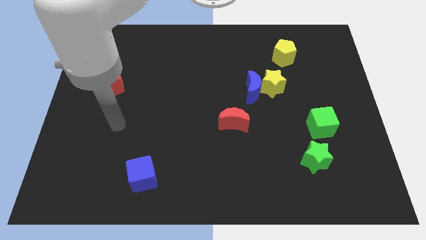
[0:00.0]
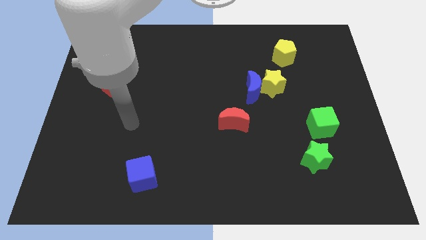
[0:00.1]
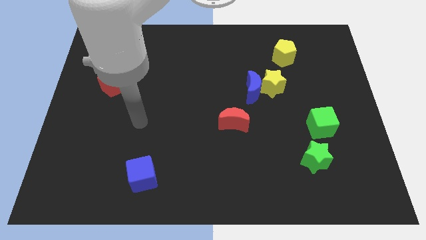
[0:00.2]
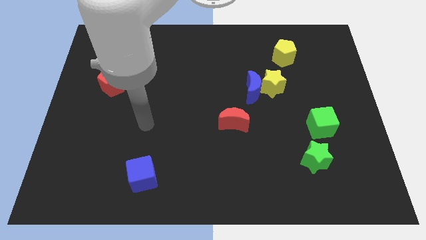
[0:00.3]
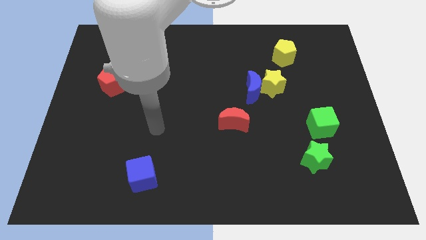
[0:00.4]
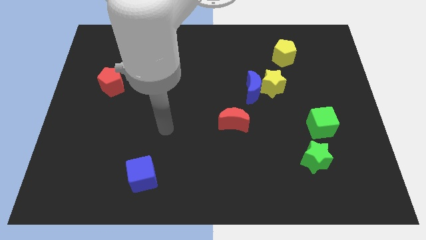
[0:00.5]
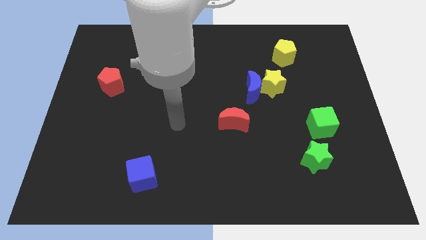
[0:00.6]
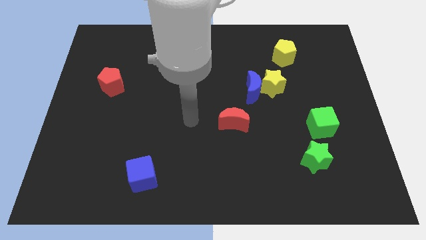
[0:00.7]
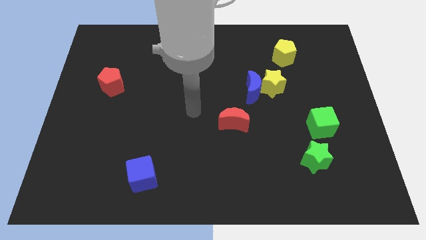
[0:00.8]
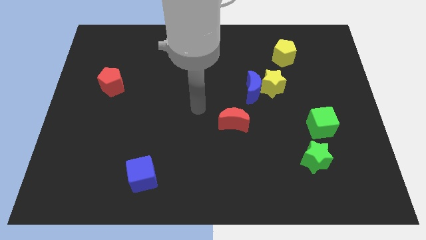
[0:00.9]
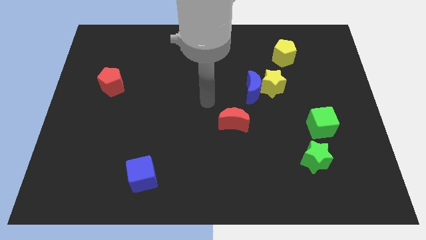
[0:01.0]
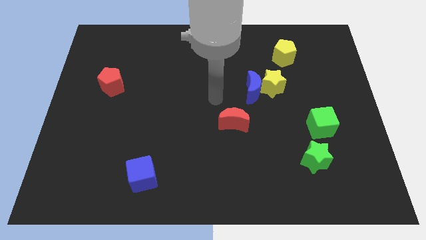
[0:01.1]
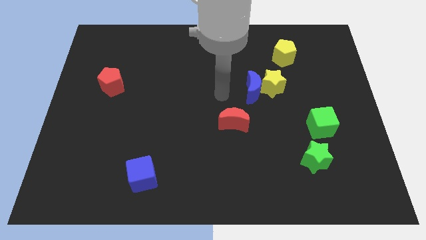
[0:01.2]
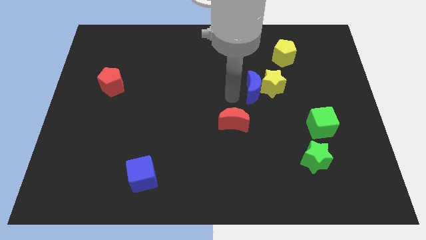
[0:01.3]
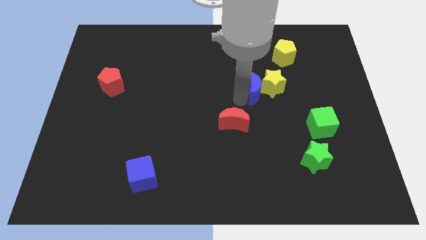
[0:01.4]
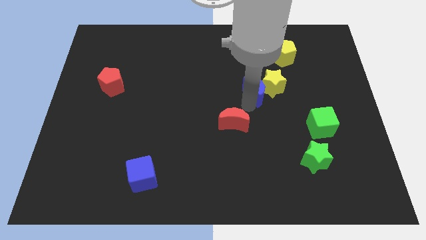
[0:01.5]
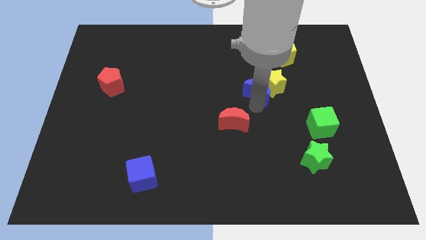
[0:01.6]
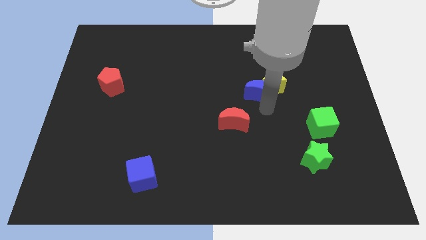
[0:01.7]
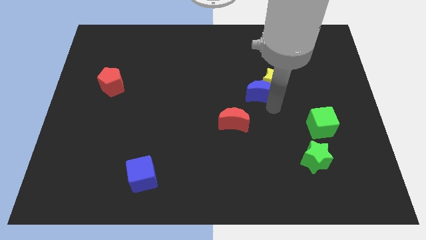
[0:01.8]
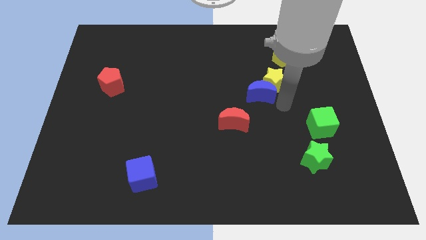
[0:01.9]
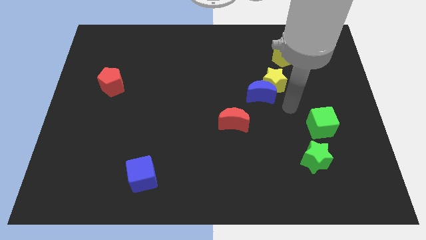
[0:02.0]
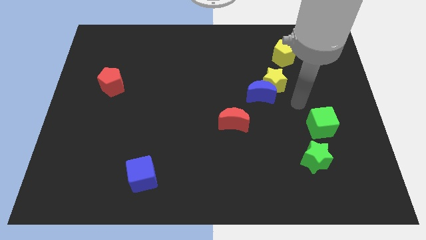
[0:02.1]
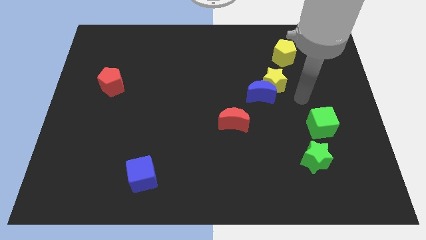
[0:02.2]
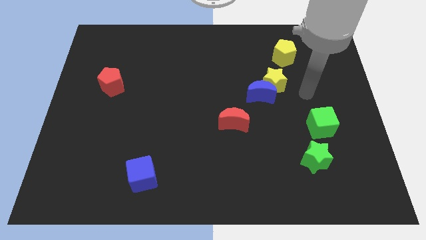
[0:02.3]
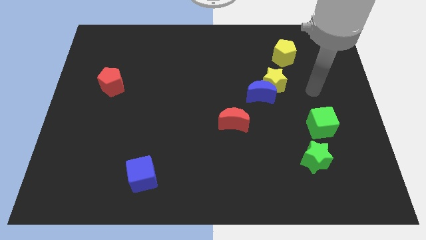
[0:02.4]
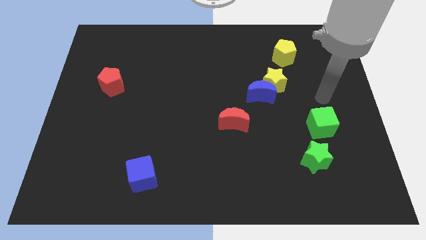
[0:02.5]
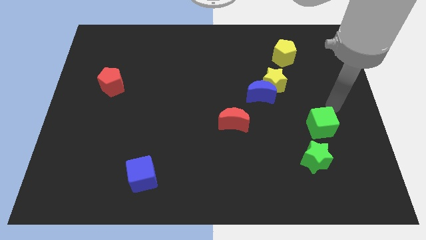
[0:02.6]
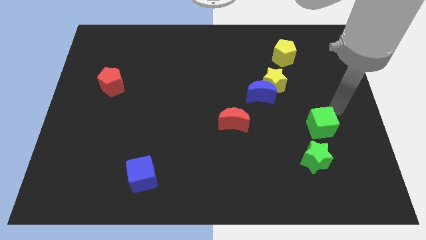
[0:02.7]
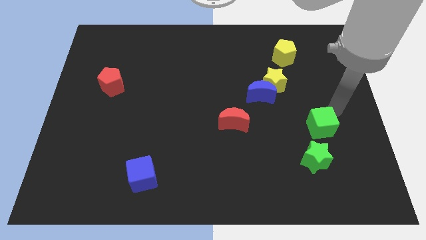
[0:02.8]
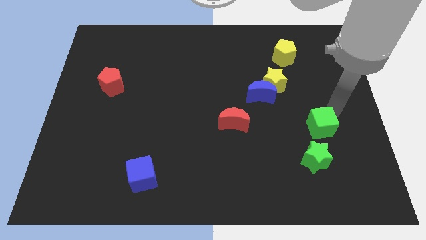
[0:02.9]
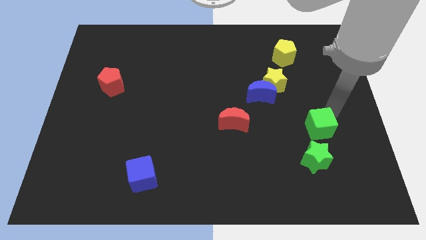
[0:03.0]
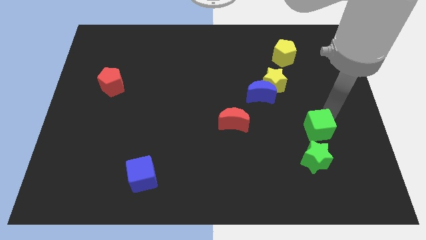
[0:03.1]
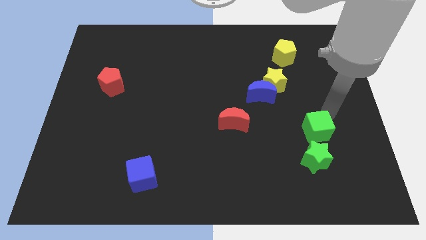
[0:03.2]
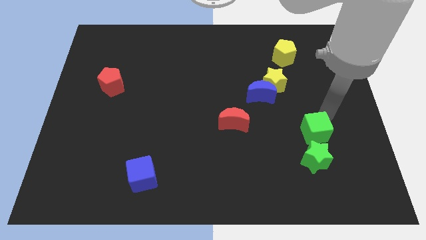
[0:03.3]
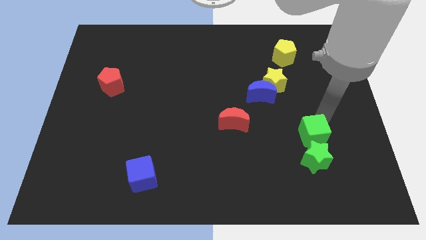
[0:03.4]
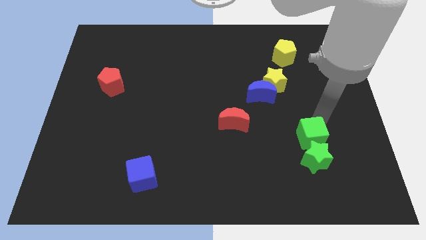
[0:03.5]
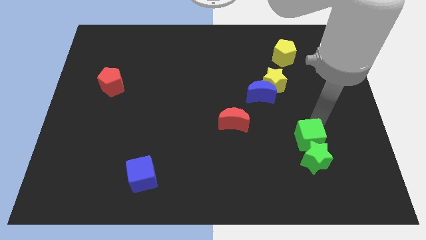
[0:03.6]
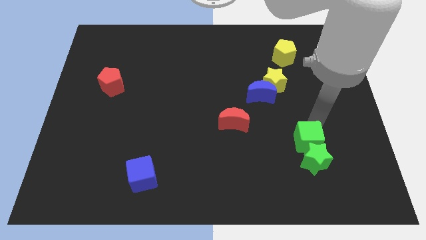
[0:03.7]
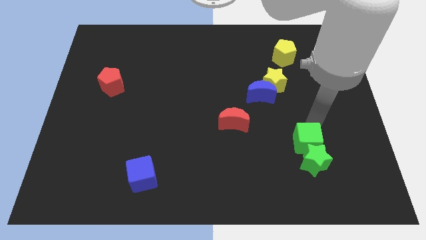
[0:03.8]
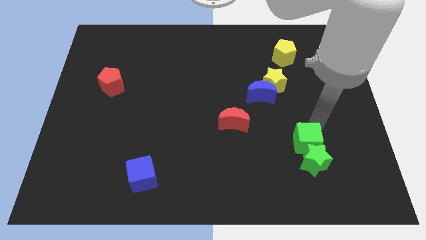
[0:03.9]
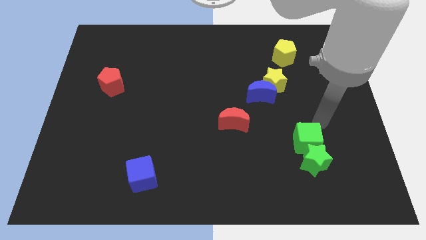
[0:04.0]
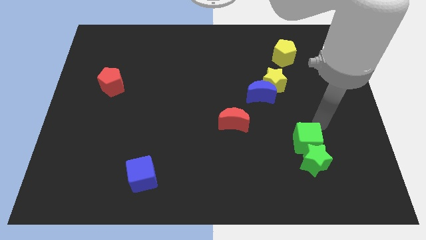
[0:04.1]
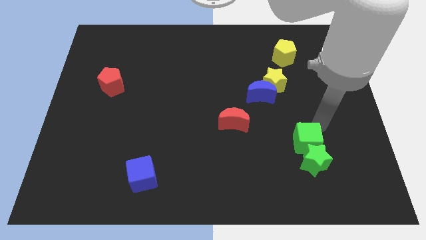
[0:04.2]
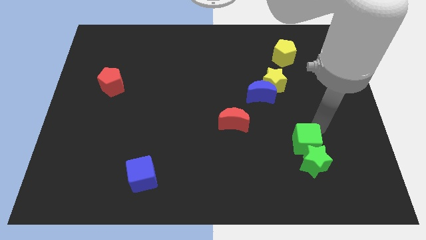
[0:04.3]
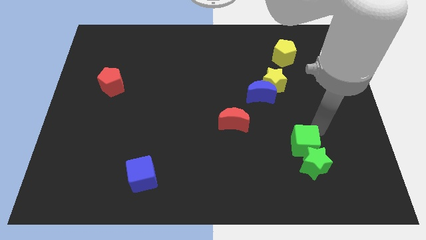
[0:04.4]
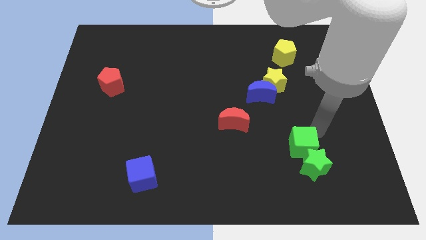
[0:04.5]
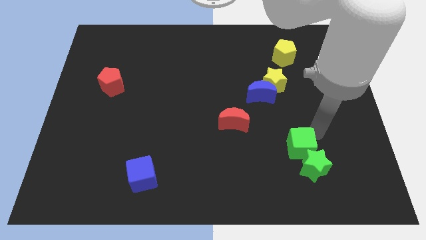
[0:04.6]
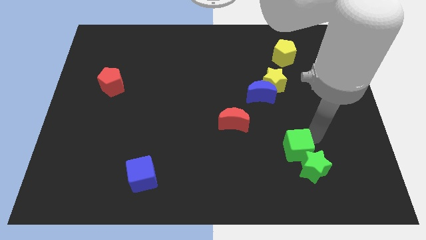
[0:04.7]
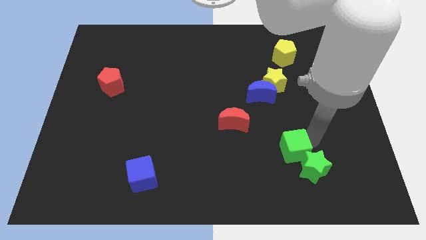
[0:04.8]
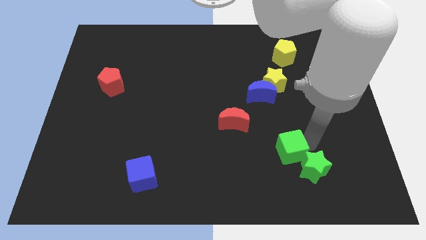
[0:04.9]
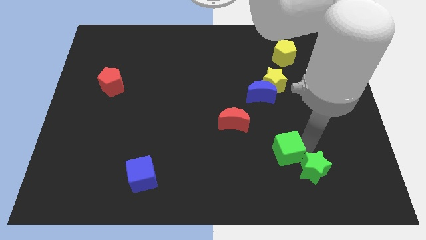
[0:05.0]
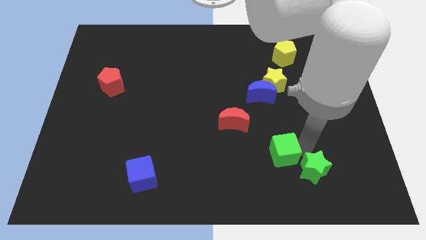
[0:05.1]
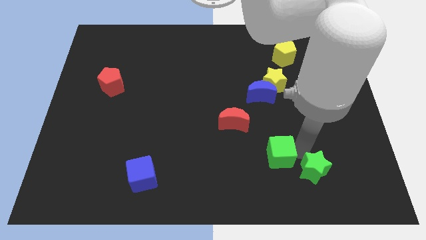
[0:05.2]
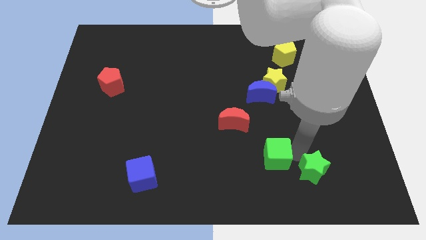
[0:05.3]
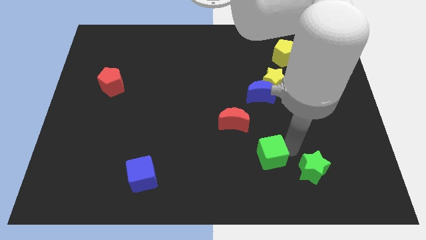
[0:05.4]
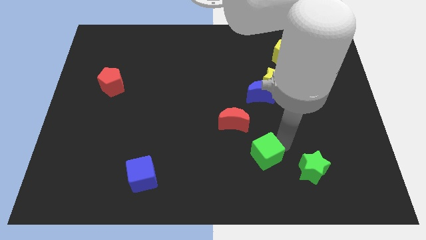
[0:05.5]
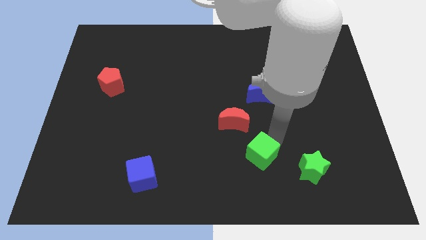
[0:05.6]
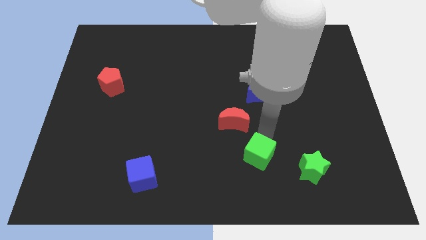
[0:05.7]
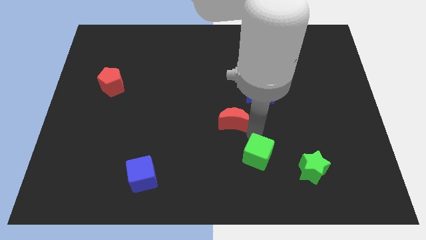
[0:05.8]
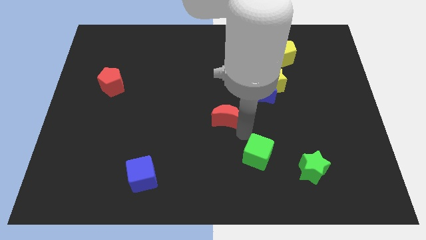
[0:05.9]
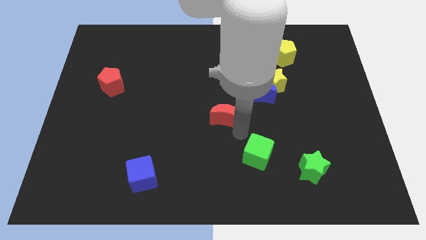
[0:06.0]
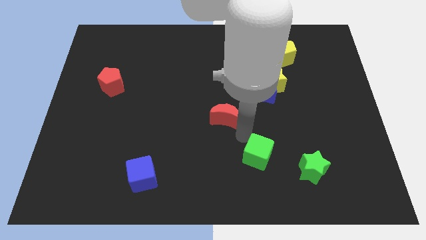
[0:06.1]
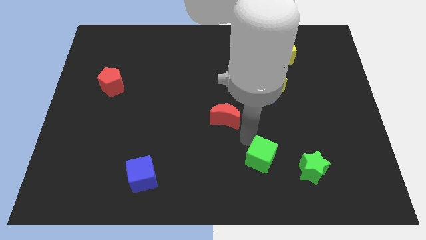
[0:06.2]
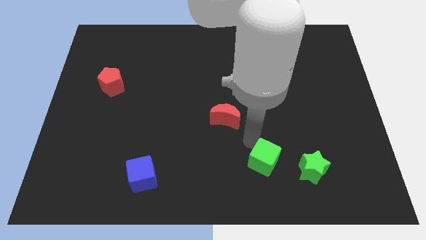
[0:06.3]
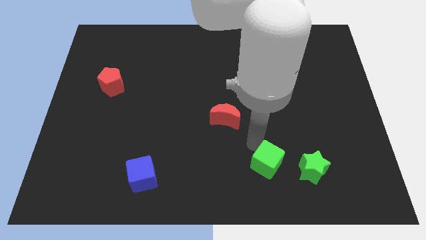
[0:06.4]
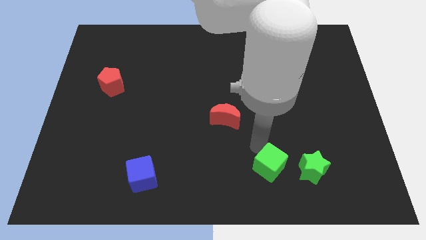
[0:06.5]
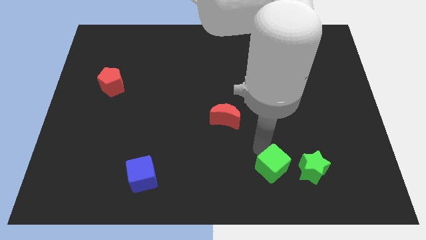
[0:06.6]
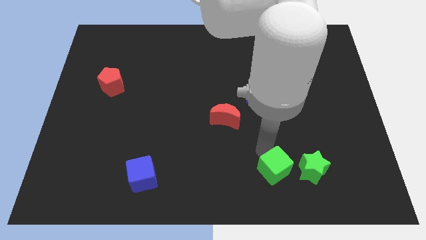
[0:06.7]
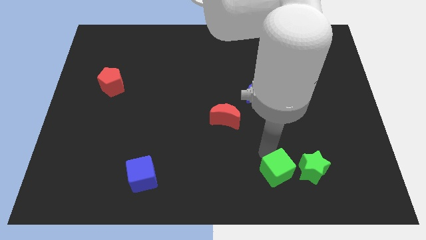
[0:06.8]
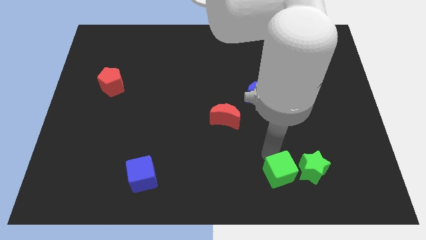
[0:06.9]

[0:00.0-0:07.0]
slide the green cube to the bottom left of the green star
